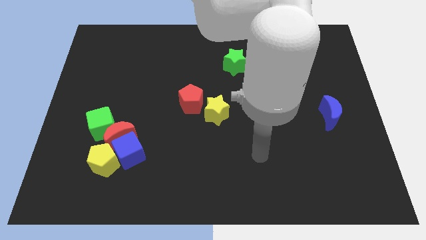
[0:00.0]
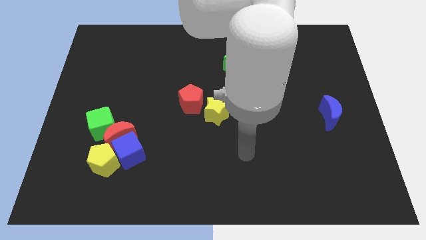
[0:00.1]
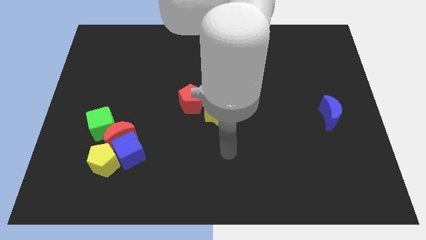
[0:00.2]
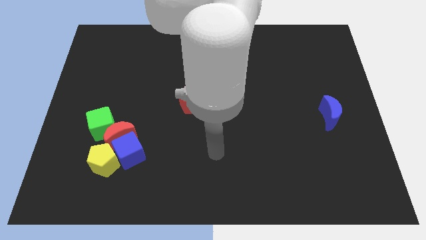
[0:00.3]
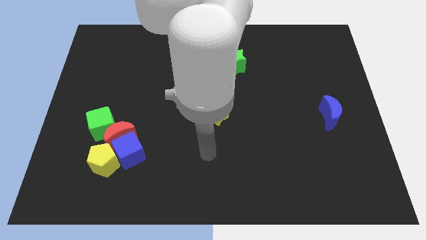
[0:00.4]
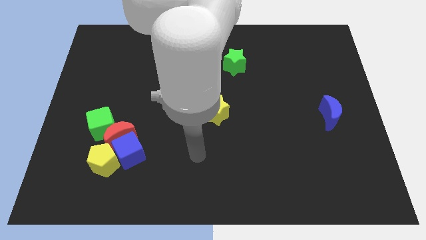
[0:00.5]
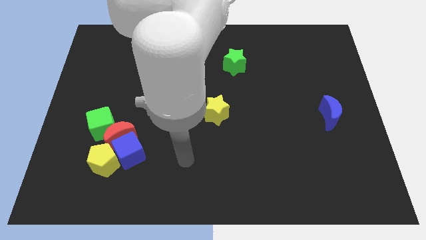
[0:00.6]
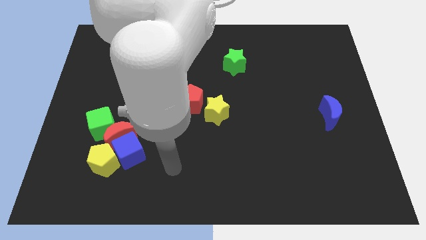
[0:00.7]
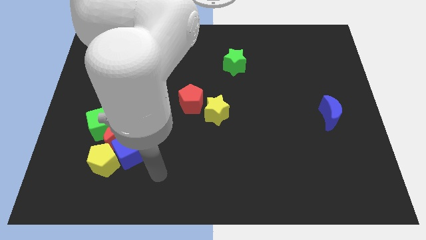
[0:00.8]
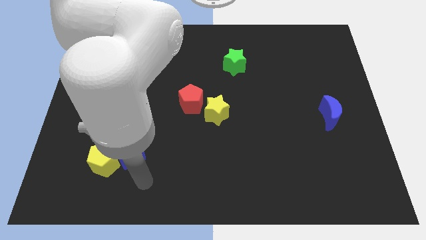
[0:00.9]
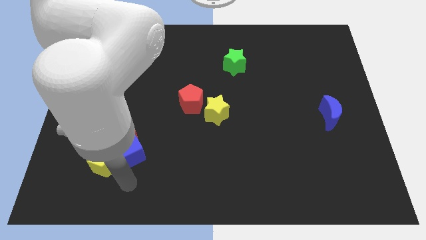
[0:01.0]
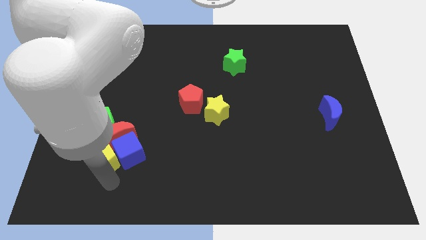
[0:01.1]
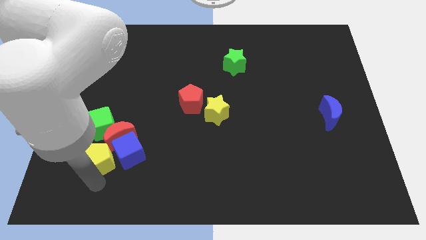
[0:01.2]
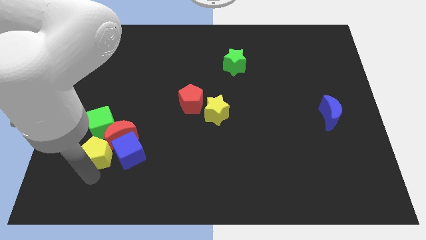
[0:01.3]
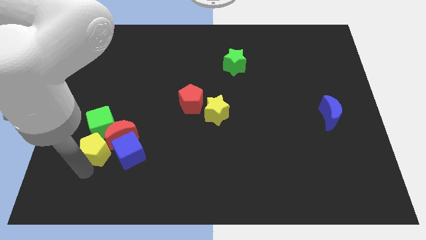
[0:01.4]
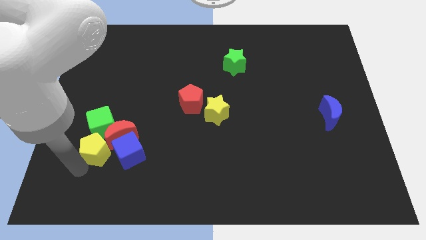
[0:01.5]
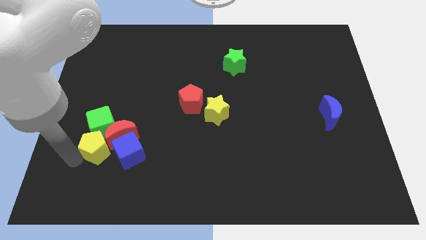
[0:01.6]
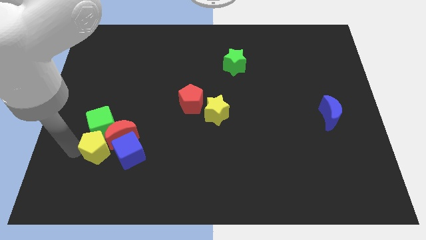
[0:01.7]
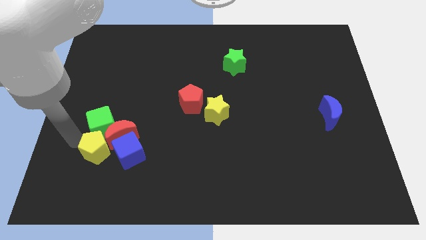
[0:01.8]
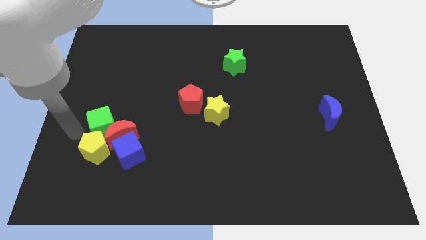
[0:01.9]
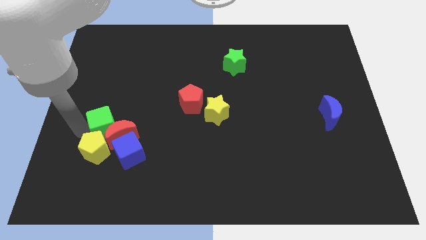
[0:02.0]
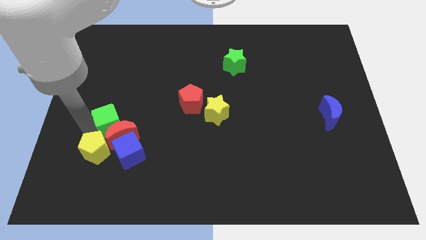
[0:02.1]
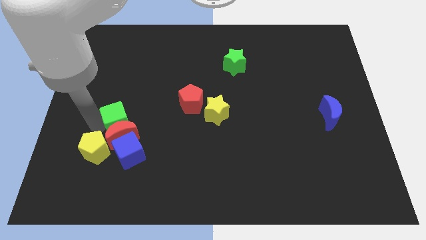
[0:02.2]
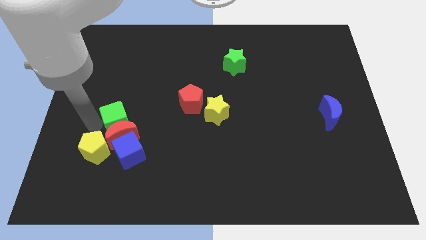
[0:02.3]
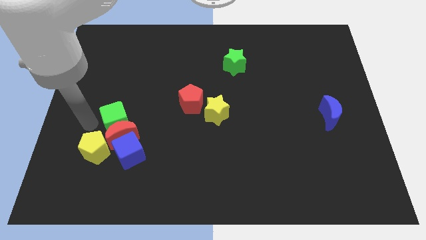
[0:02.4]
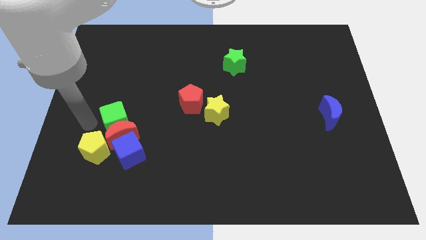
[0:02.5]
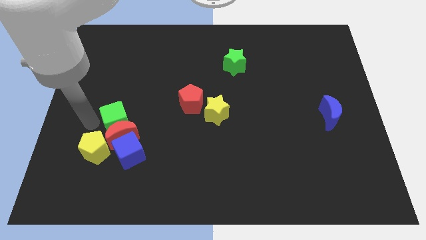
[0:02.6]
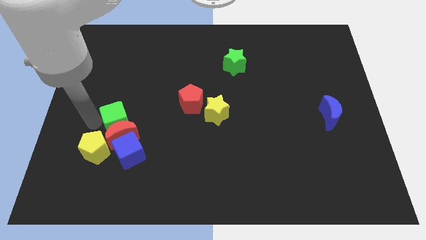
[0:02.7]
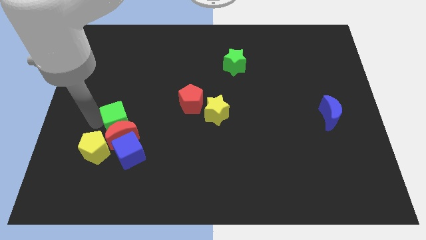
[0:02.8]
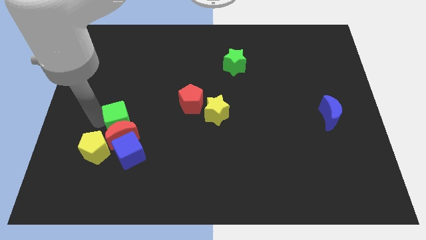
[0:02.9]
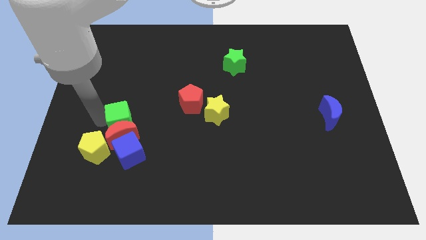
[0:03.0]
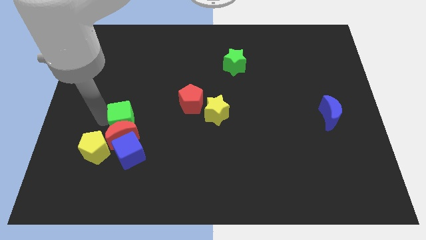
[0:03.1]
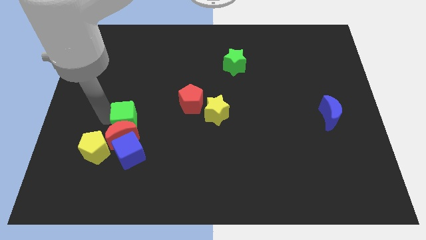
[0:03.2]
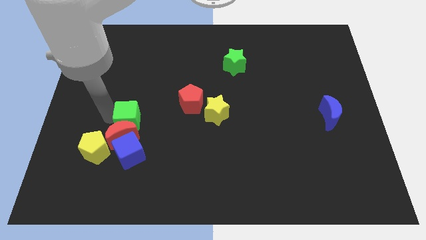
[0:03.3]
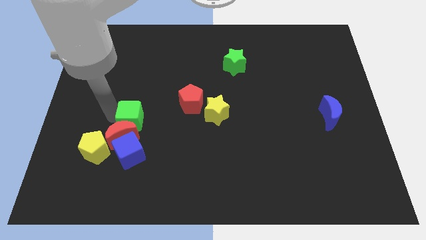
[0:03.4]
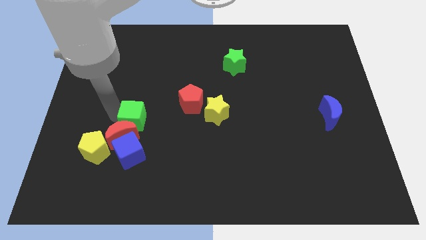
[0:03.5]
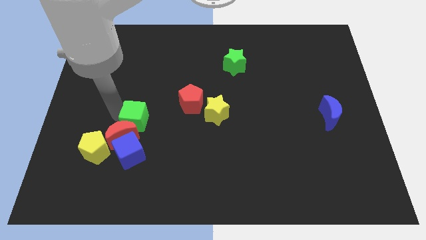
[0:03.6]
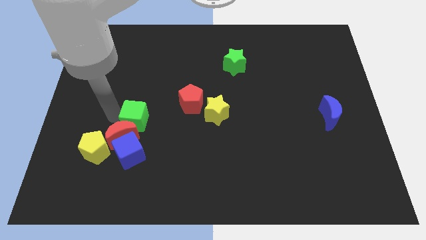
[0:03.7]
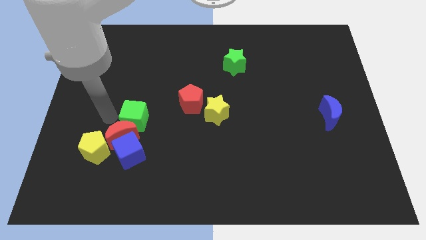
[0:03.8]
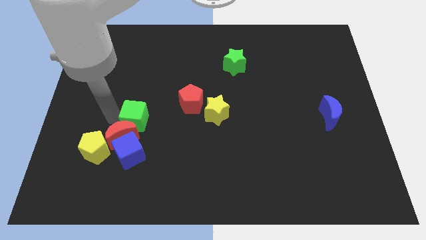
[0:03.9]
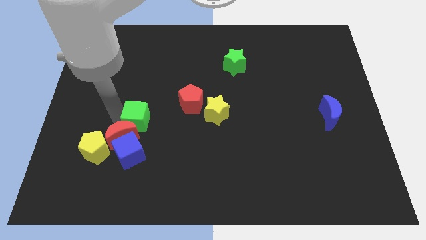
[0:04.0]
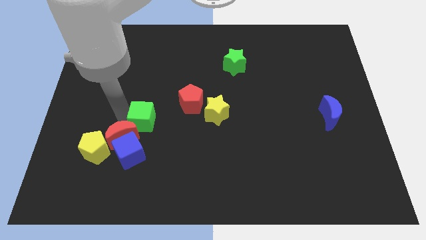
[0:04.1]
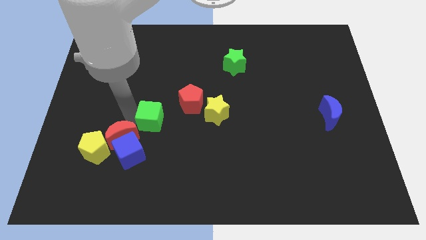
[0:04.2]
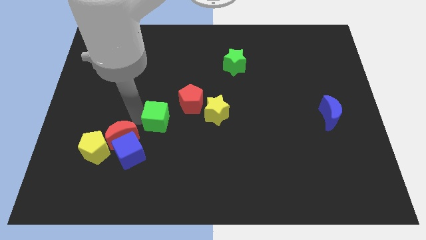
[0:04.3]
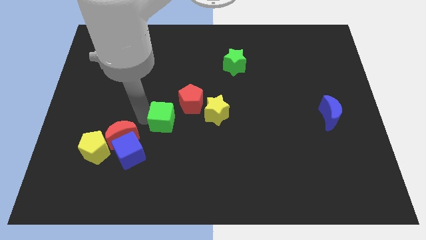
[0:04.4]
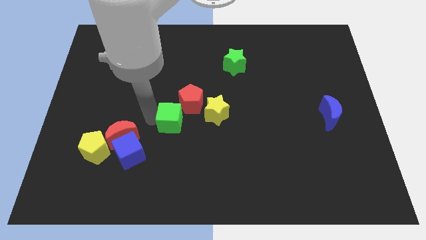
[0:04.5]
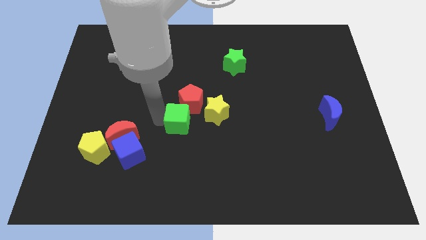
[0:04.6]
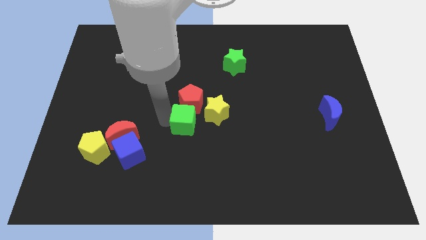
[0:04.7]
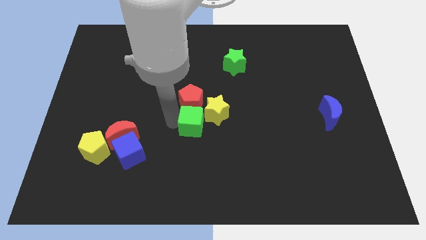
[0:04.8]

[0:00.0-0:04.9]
slide the green cube to the bottom right side of the red pentagon

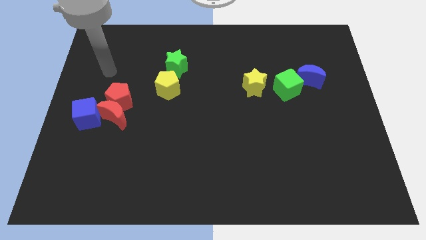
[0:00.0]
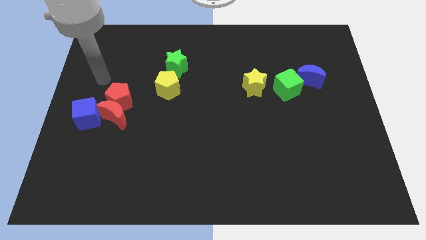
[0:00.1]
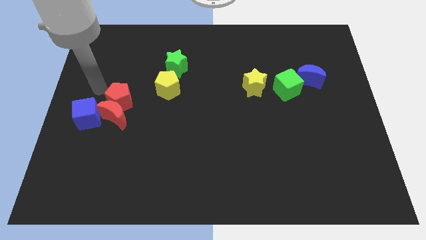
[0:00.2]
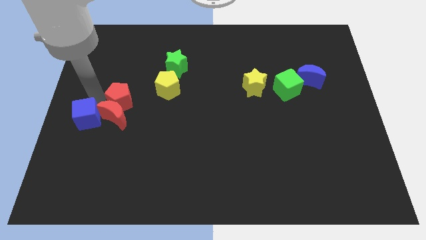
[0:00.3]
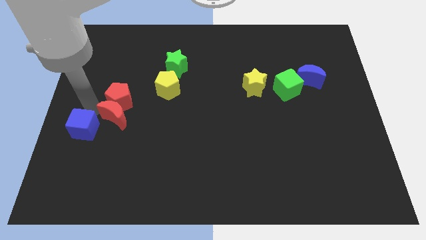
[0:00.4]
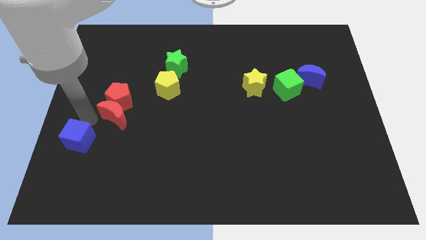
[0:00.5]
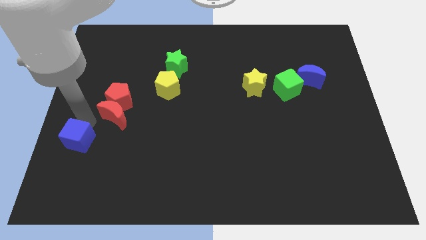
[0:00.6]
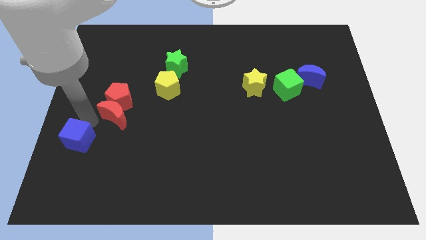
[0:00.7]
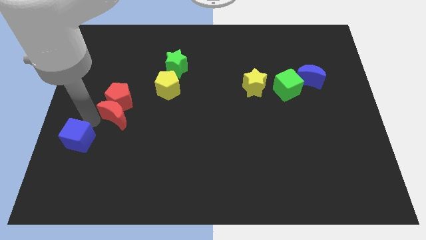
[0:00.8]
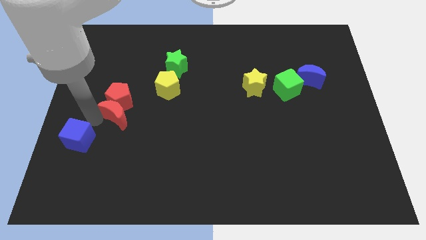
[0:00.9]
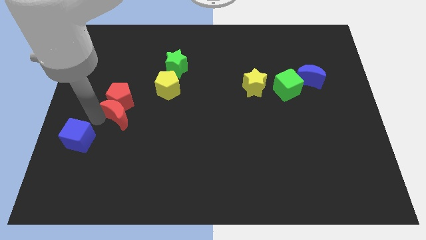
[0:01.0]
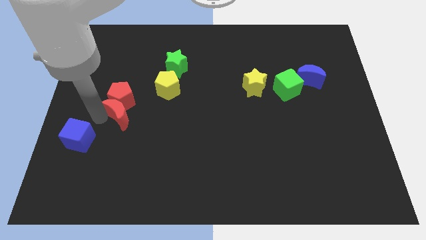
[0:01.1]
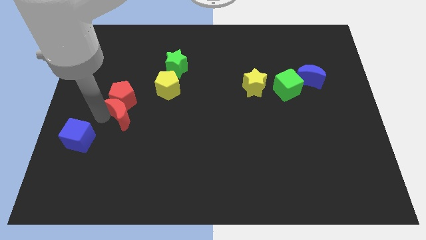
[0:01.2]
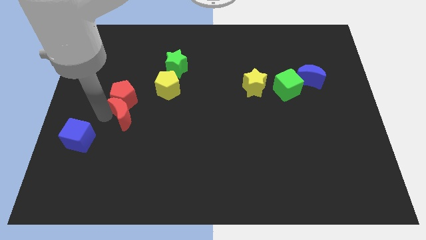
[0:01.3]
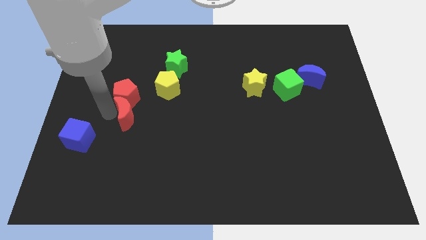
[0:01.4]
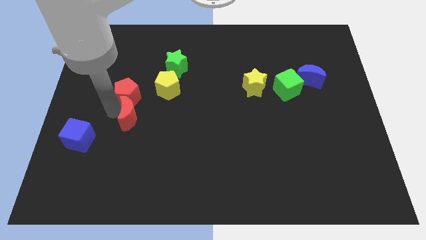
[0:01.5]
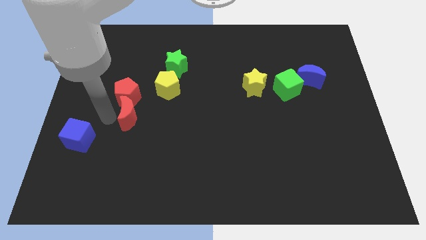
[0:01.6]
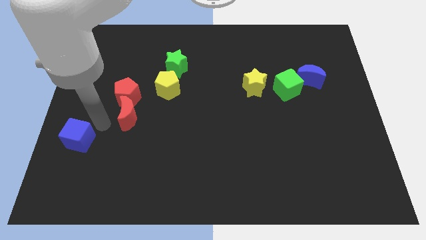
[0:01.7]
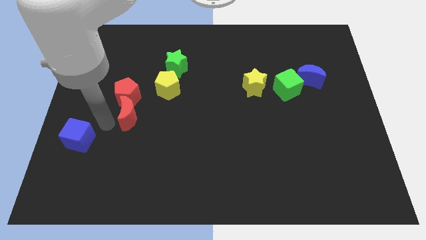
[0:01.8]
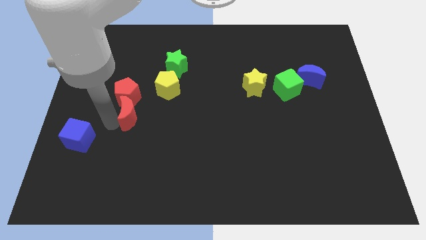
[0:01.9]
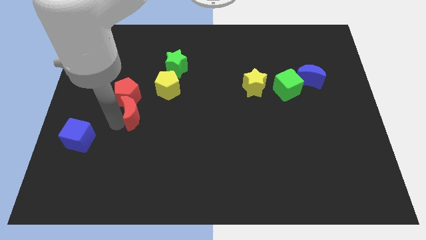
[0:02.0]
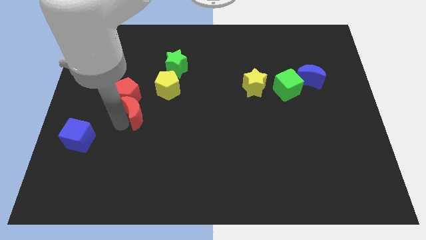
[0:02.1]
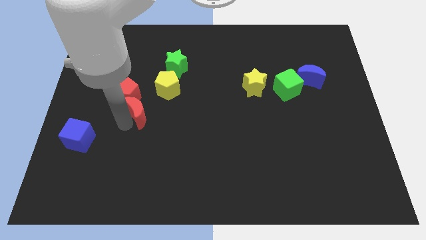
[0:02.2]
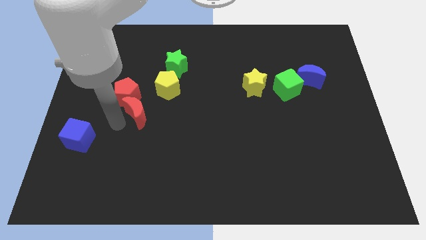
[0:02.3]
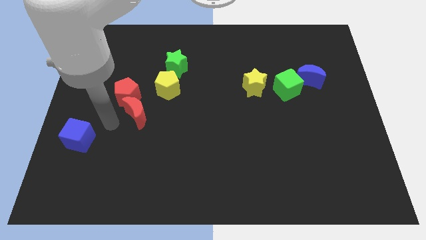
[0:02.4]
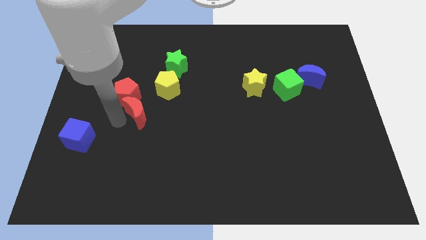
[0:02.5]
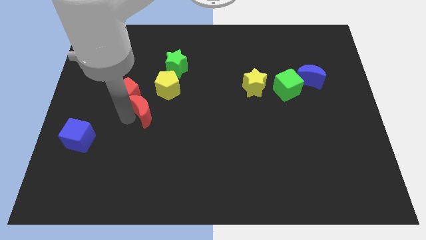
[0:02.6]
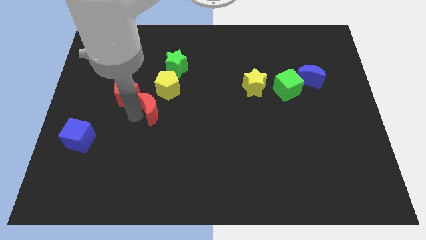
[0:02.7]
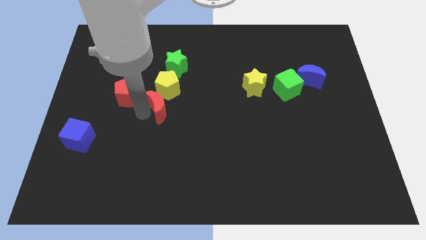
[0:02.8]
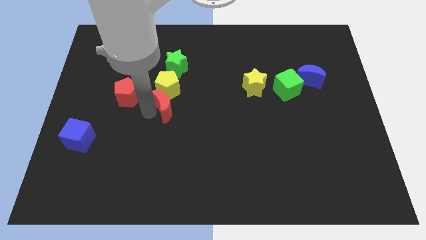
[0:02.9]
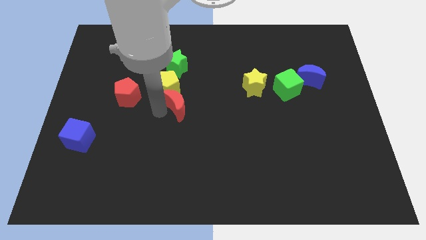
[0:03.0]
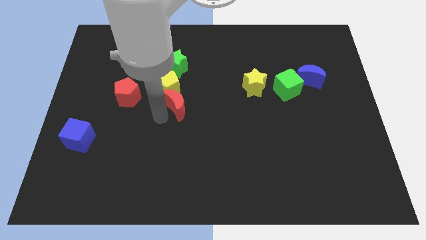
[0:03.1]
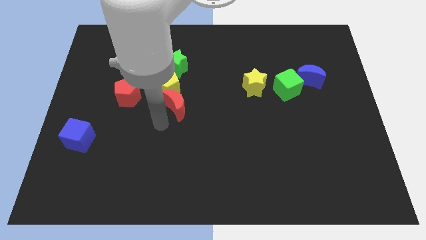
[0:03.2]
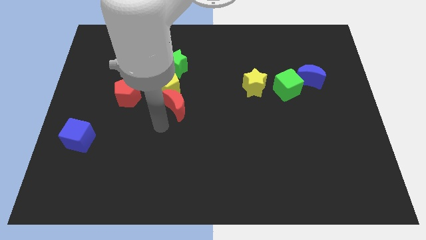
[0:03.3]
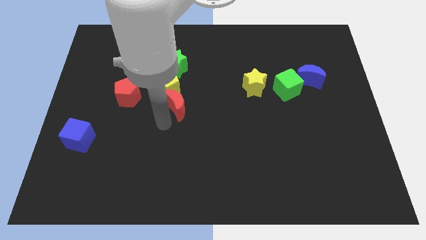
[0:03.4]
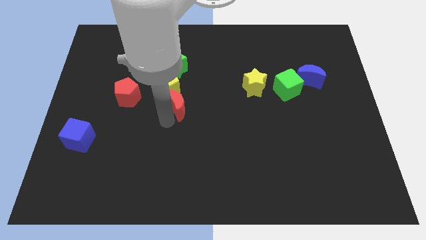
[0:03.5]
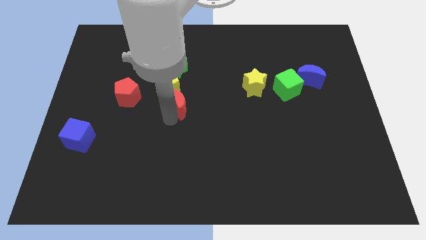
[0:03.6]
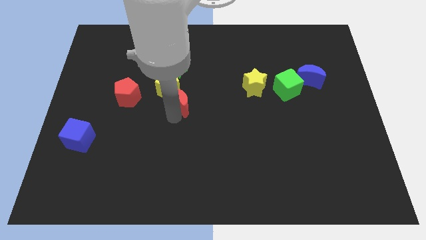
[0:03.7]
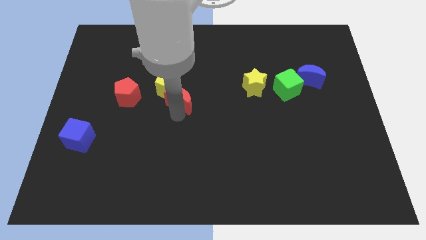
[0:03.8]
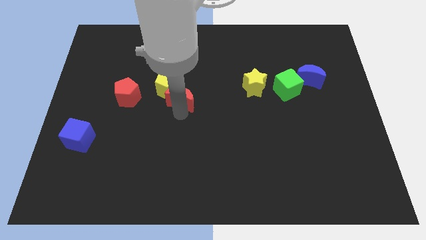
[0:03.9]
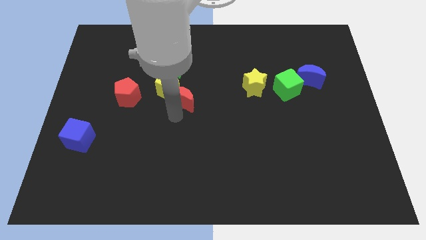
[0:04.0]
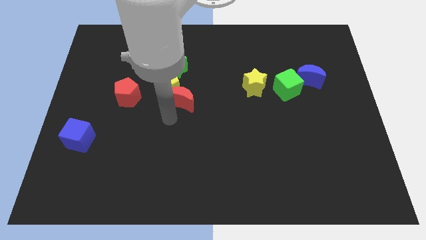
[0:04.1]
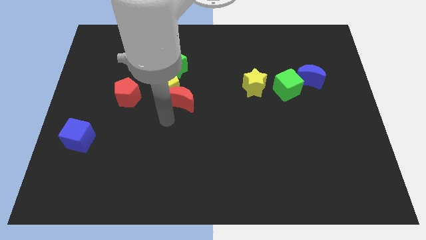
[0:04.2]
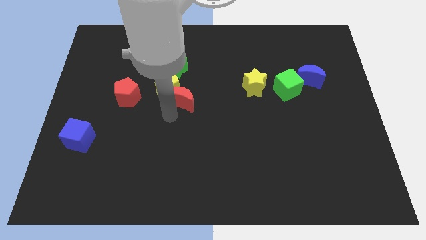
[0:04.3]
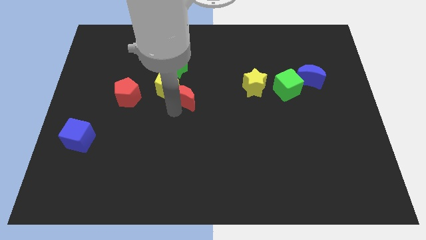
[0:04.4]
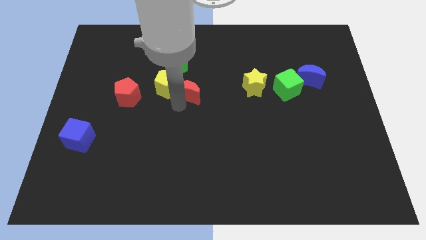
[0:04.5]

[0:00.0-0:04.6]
move the red moon to the bottom right side of the green star
